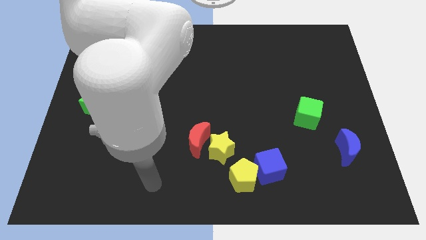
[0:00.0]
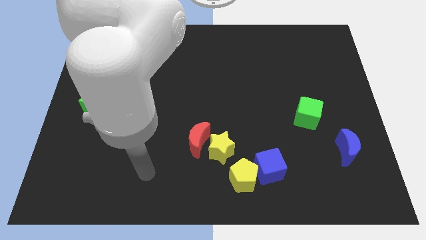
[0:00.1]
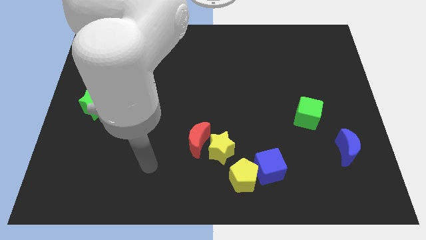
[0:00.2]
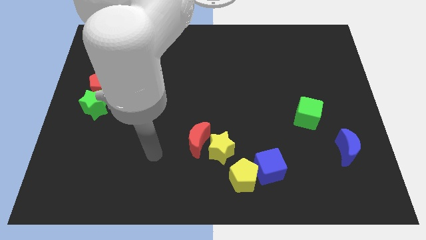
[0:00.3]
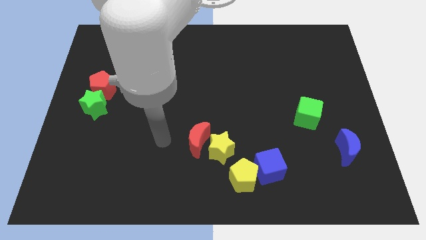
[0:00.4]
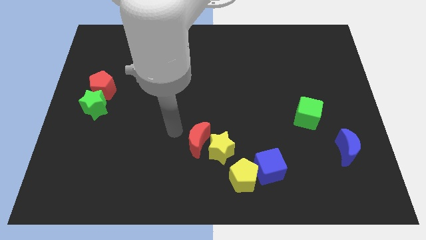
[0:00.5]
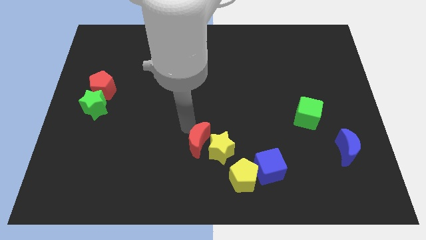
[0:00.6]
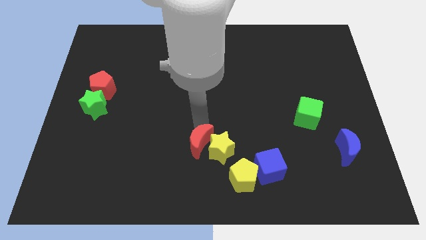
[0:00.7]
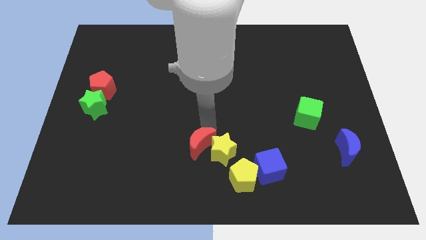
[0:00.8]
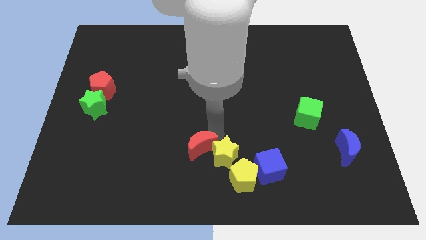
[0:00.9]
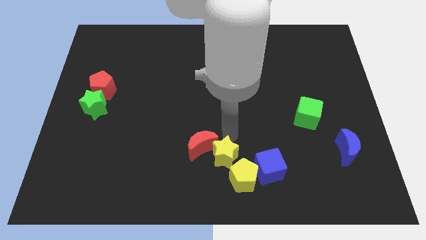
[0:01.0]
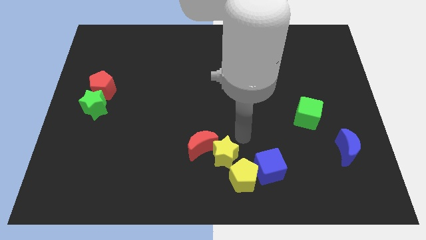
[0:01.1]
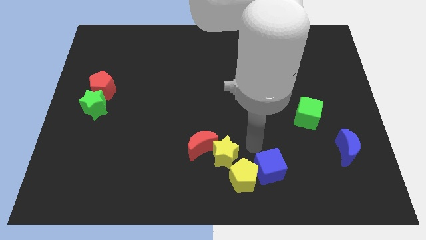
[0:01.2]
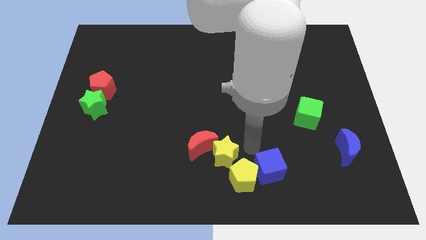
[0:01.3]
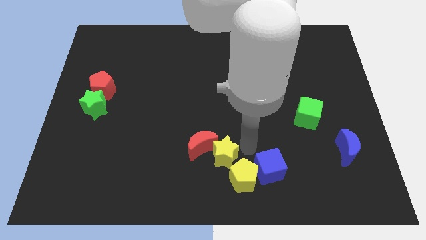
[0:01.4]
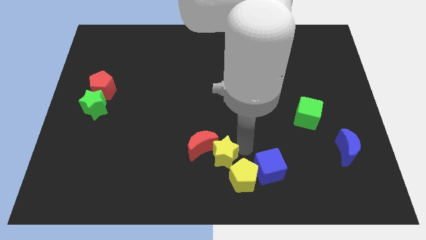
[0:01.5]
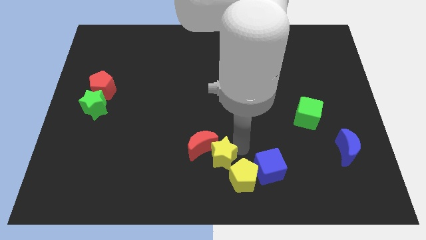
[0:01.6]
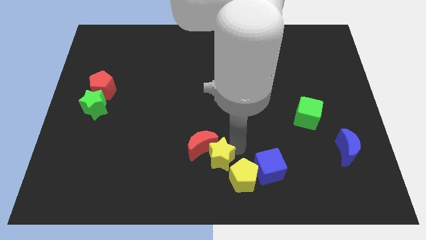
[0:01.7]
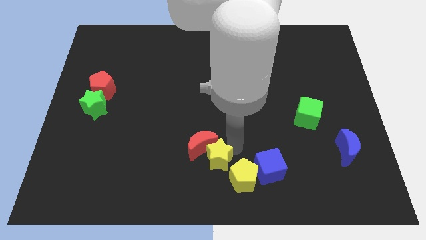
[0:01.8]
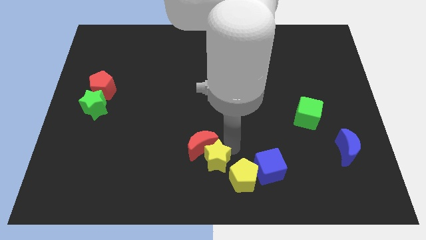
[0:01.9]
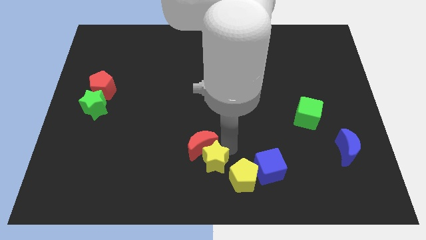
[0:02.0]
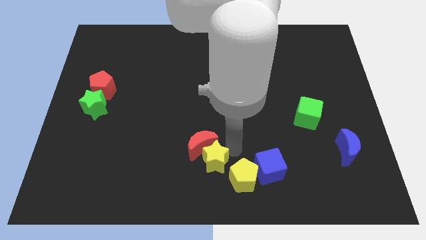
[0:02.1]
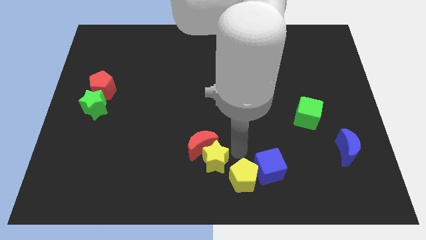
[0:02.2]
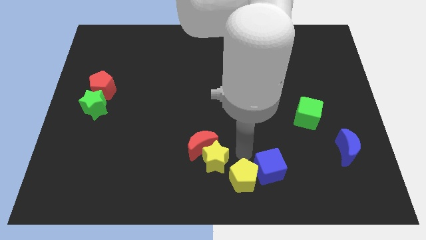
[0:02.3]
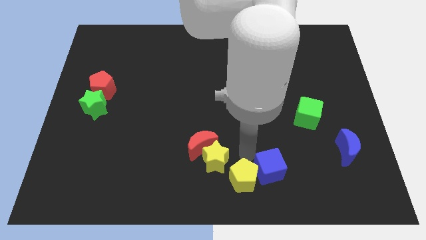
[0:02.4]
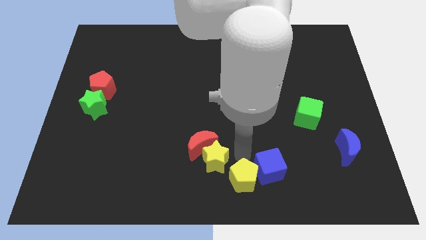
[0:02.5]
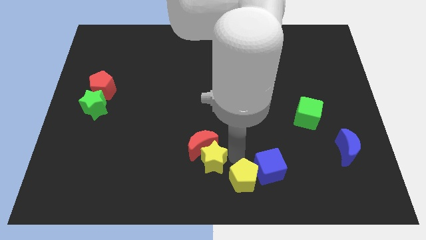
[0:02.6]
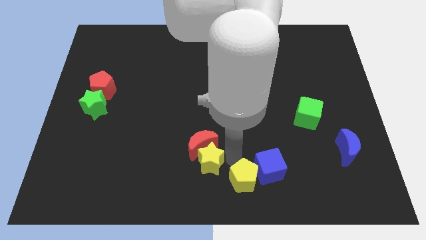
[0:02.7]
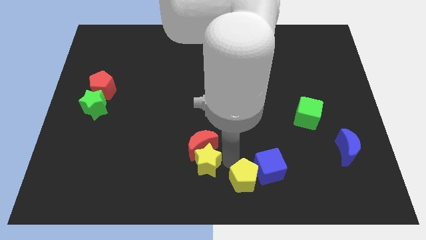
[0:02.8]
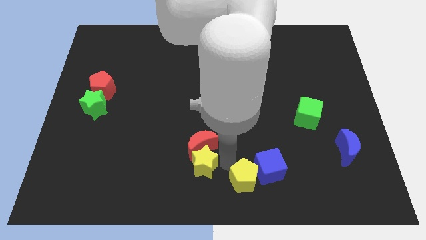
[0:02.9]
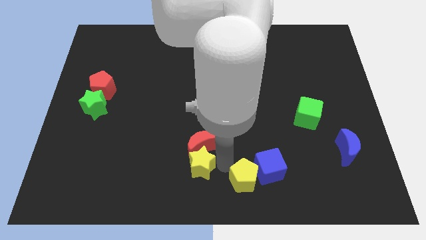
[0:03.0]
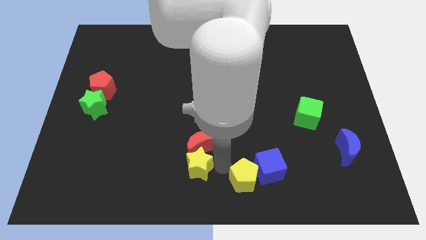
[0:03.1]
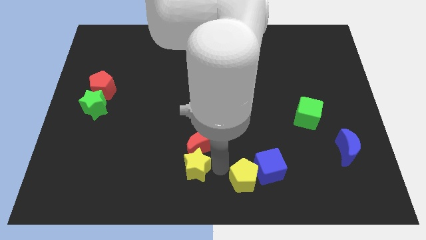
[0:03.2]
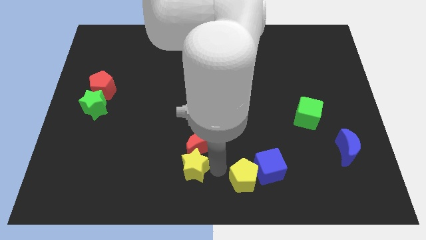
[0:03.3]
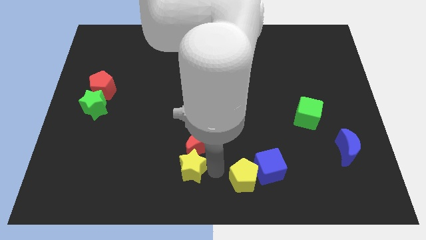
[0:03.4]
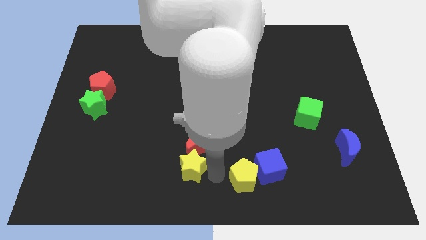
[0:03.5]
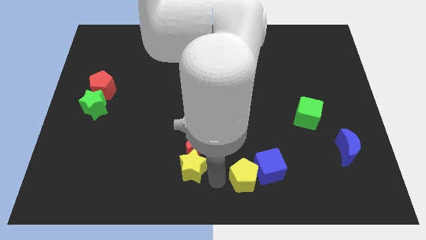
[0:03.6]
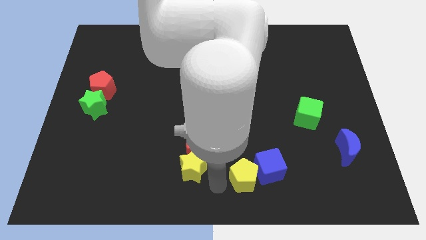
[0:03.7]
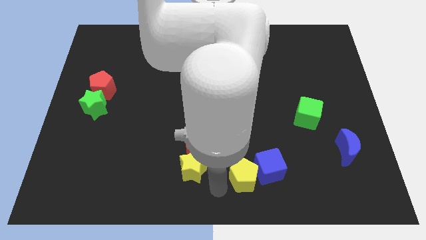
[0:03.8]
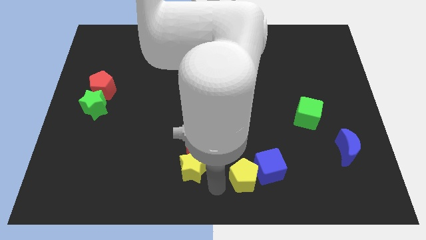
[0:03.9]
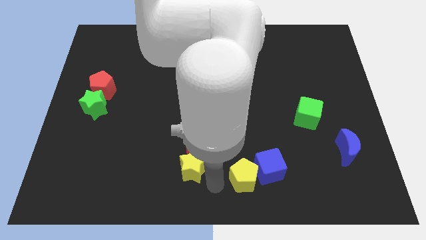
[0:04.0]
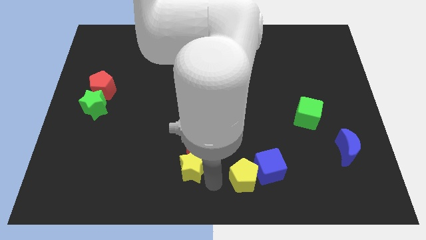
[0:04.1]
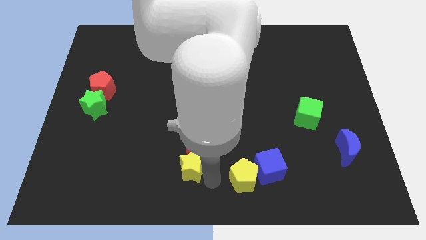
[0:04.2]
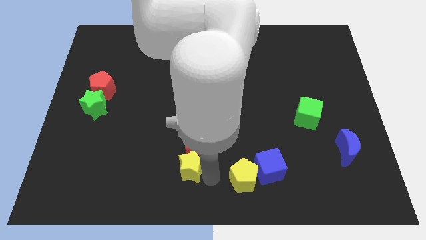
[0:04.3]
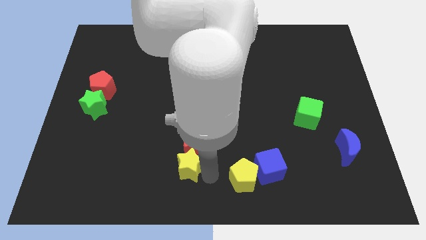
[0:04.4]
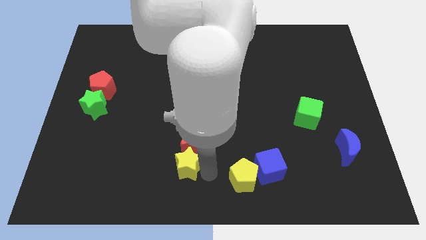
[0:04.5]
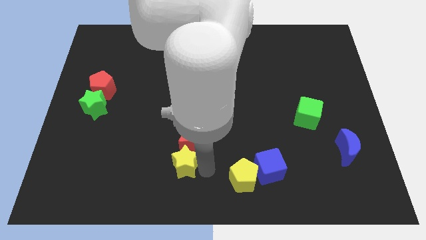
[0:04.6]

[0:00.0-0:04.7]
move the yellow star slightly left

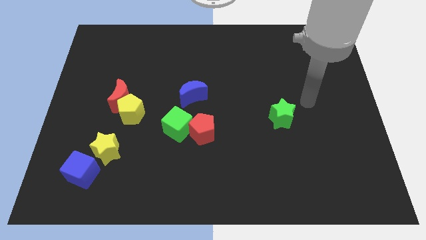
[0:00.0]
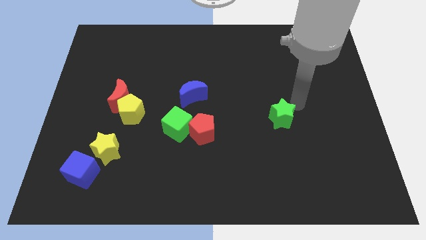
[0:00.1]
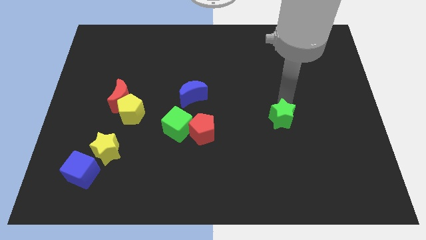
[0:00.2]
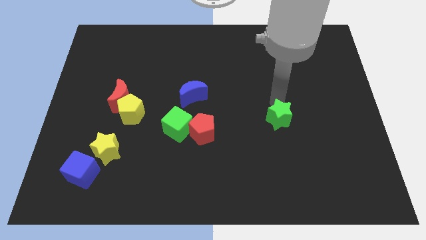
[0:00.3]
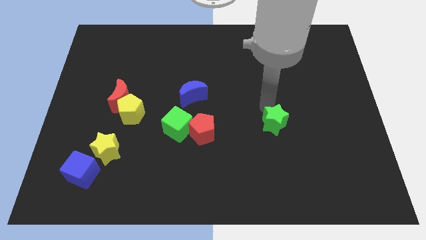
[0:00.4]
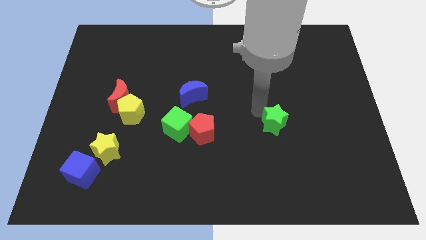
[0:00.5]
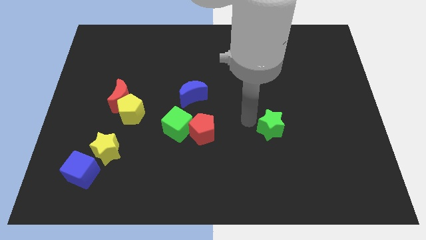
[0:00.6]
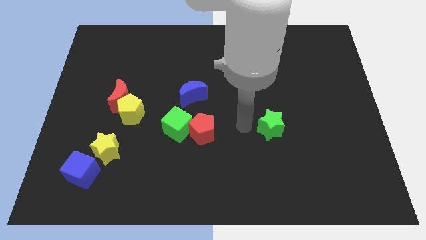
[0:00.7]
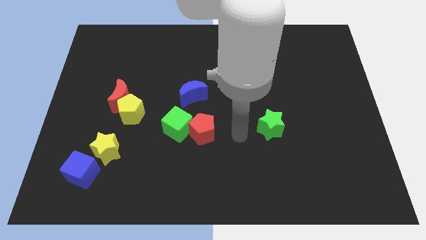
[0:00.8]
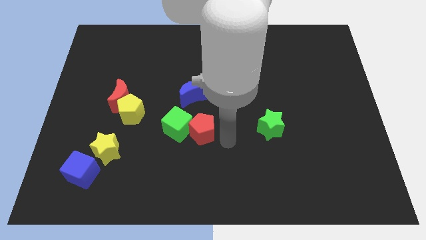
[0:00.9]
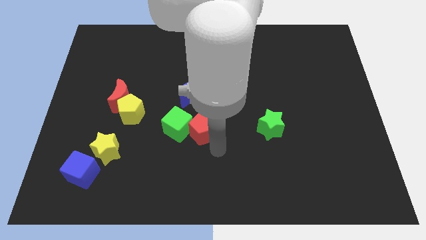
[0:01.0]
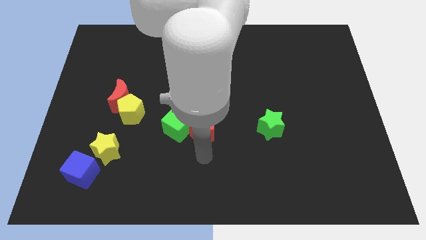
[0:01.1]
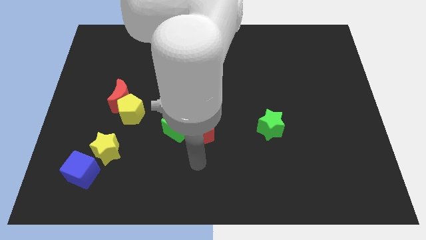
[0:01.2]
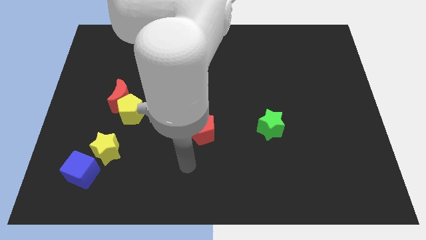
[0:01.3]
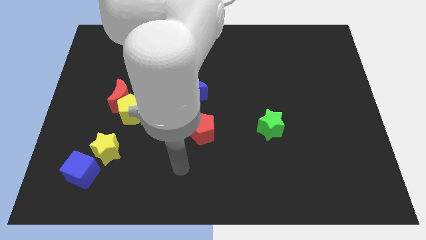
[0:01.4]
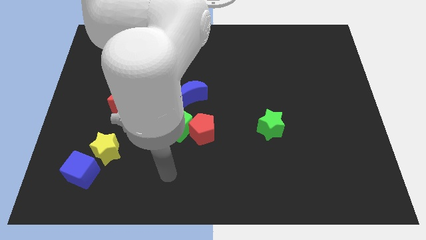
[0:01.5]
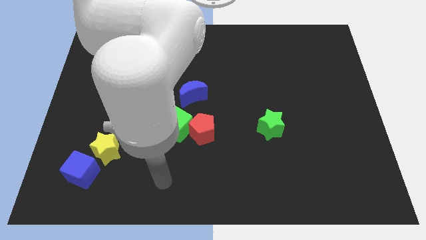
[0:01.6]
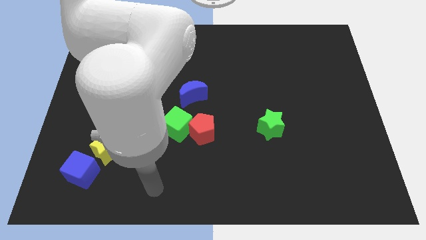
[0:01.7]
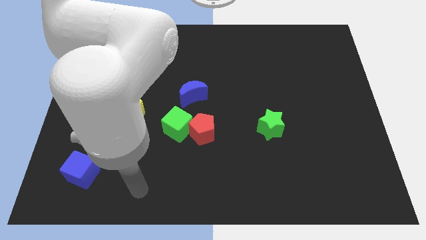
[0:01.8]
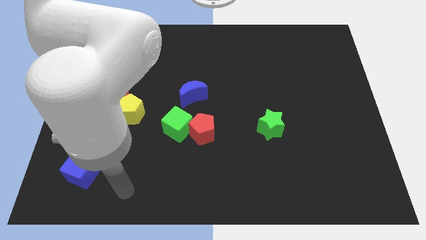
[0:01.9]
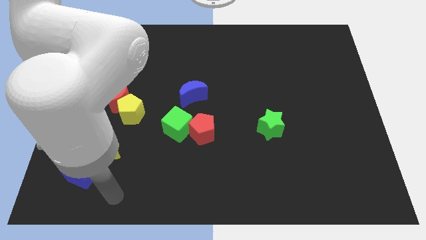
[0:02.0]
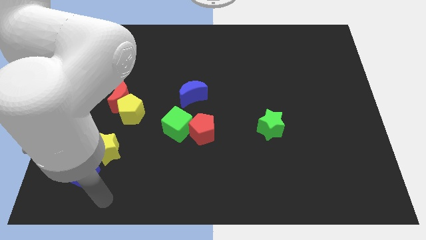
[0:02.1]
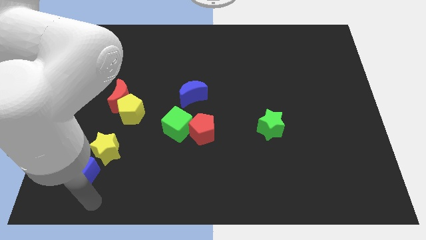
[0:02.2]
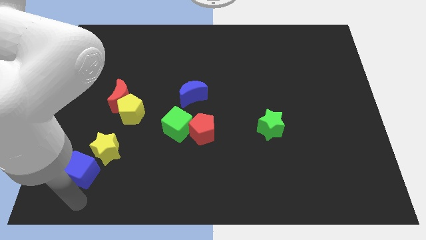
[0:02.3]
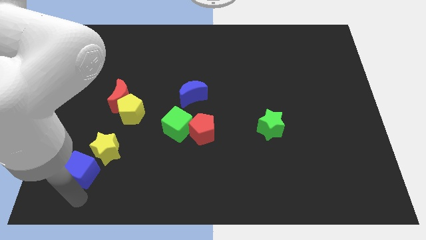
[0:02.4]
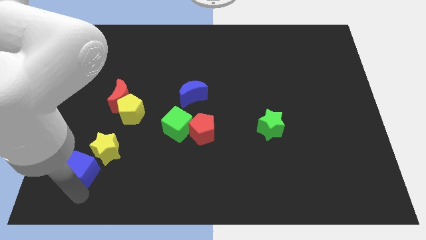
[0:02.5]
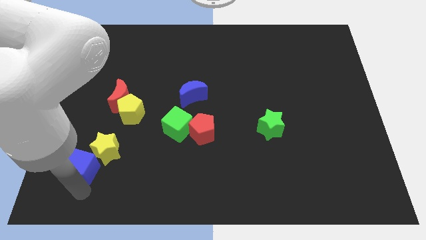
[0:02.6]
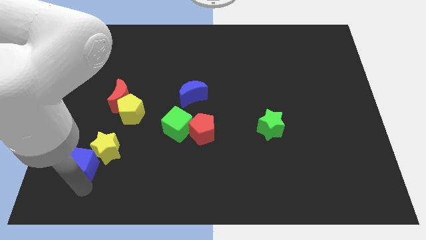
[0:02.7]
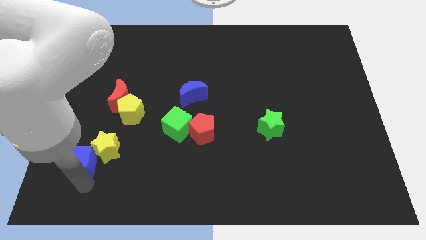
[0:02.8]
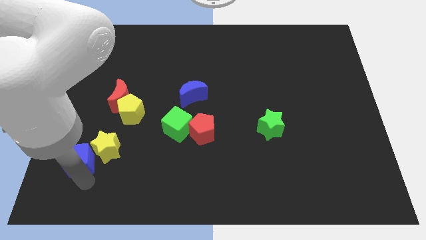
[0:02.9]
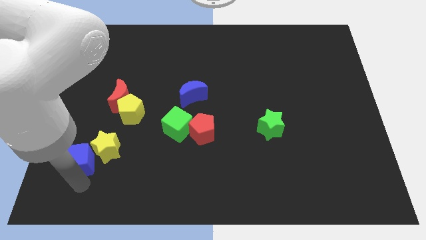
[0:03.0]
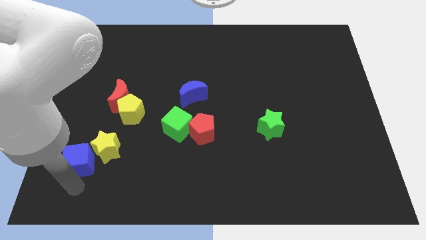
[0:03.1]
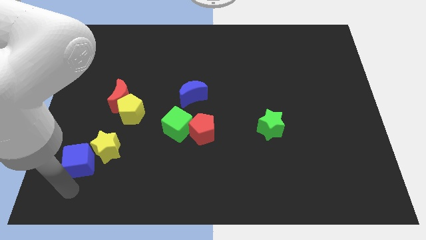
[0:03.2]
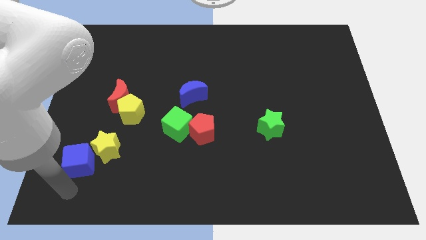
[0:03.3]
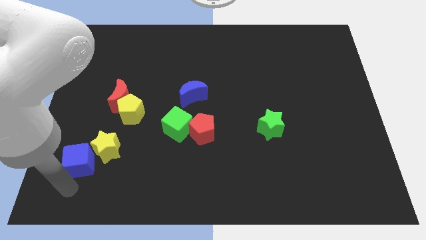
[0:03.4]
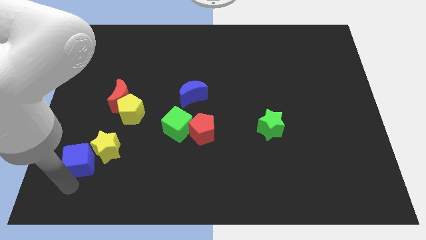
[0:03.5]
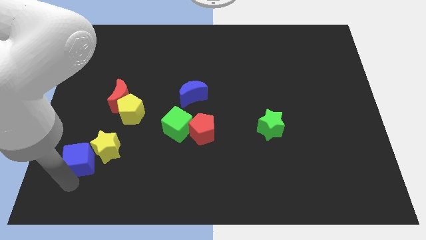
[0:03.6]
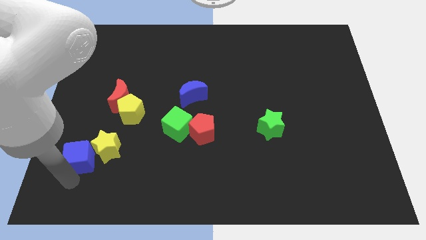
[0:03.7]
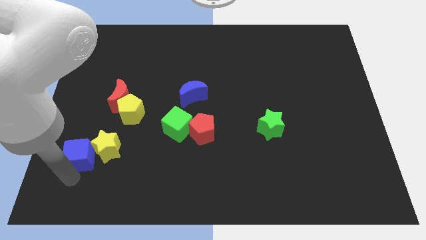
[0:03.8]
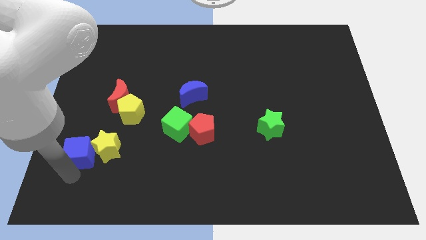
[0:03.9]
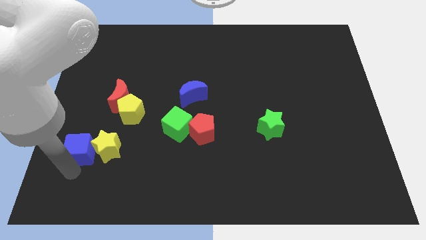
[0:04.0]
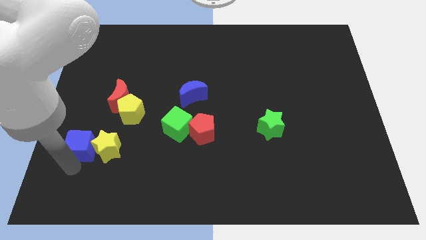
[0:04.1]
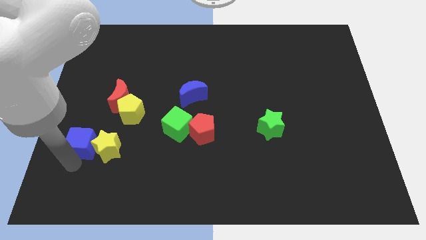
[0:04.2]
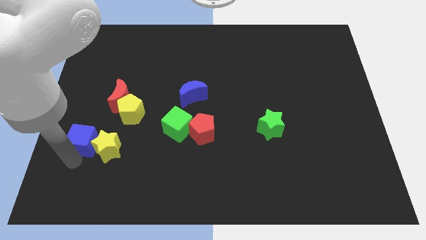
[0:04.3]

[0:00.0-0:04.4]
push the blue cube a bit up
